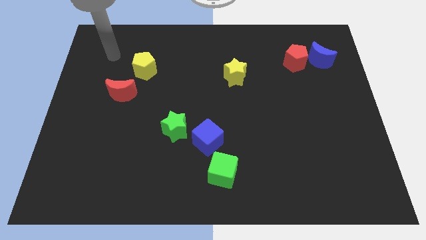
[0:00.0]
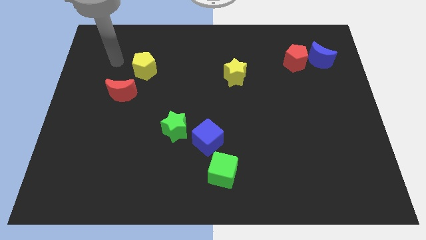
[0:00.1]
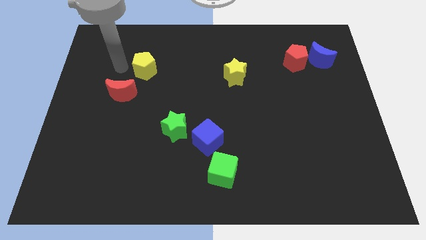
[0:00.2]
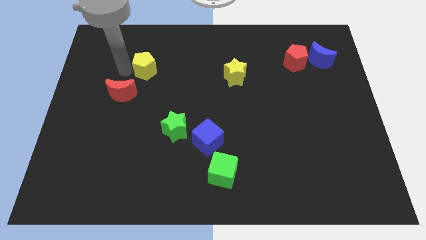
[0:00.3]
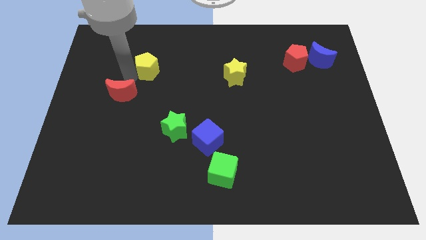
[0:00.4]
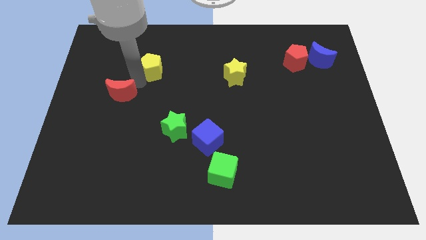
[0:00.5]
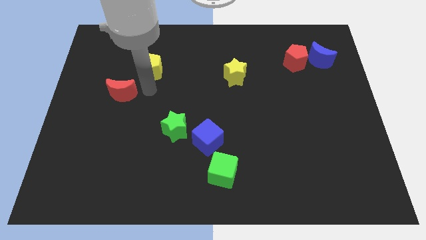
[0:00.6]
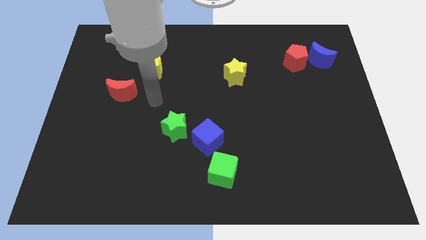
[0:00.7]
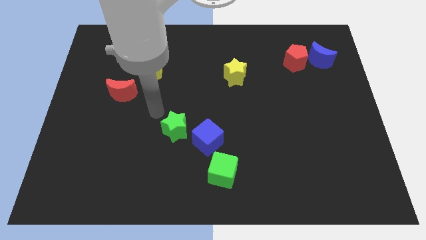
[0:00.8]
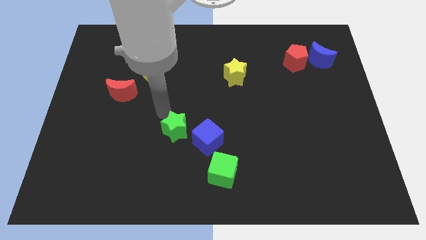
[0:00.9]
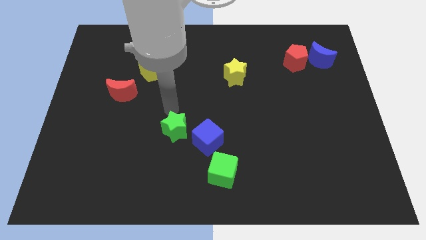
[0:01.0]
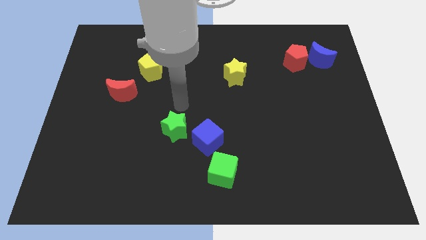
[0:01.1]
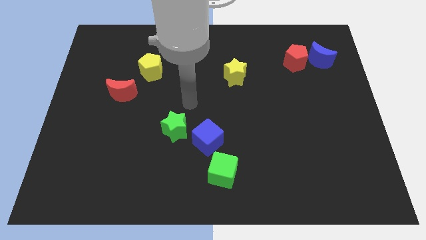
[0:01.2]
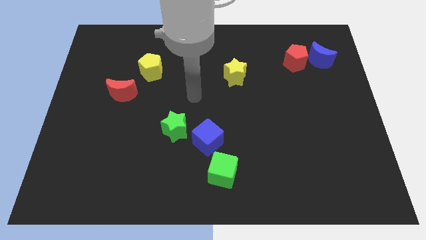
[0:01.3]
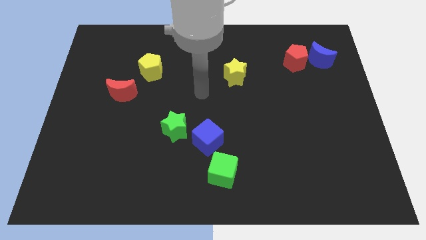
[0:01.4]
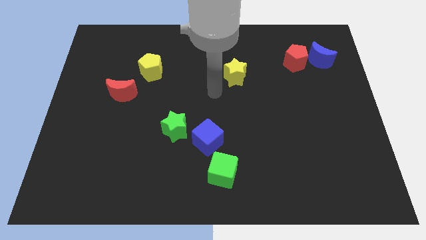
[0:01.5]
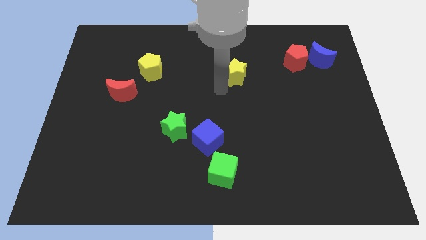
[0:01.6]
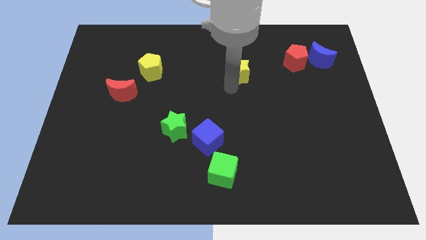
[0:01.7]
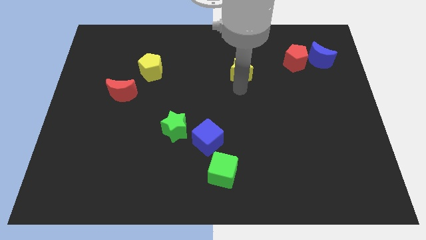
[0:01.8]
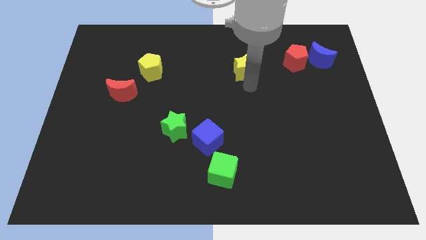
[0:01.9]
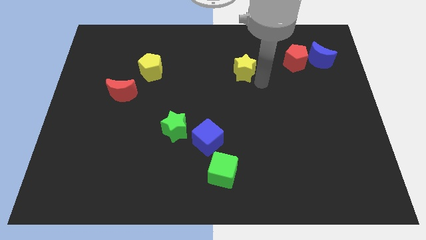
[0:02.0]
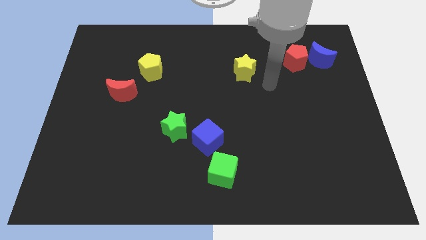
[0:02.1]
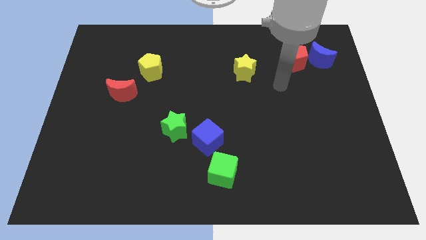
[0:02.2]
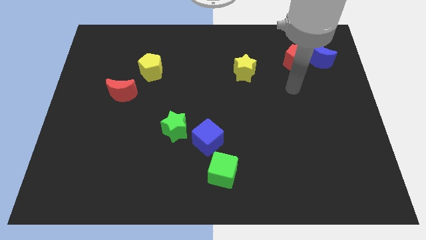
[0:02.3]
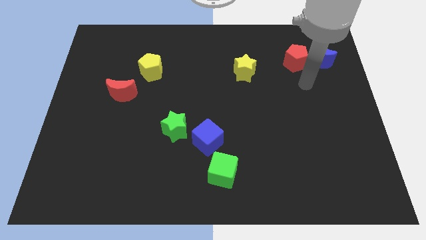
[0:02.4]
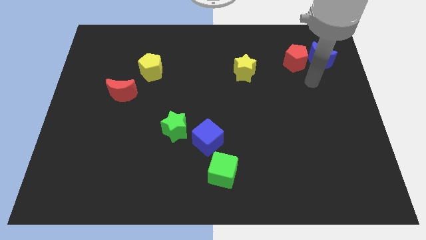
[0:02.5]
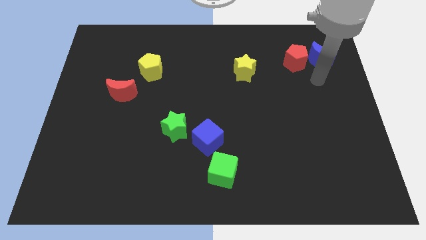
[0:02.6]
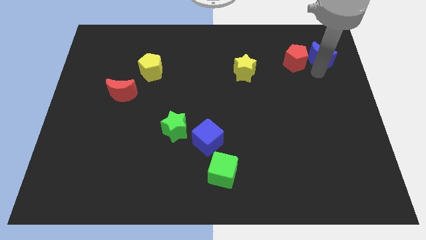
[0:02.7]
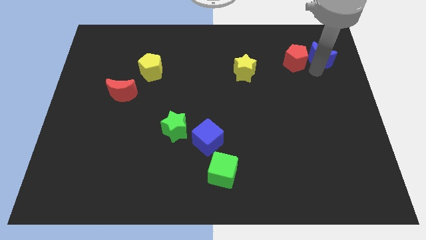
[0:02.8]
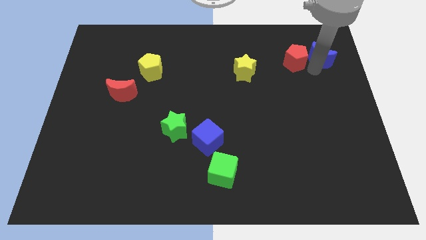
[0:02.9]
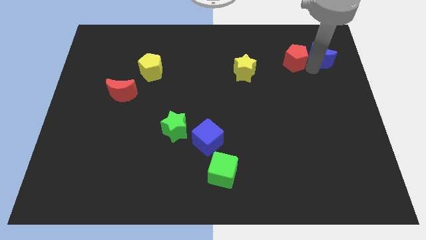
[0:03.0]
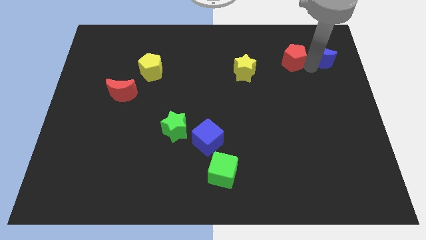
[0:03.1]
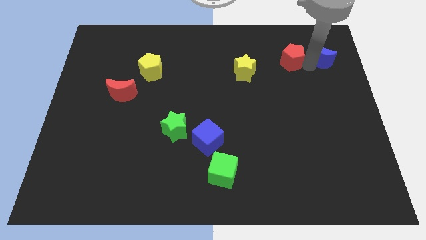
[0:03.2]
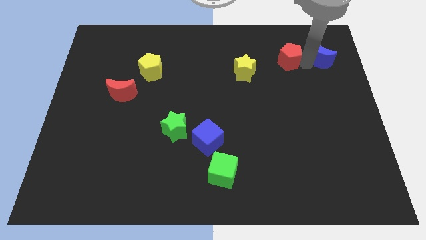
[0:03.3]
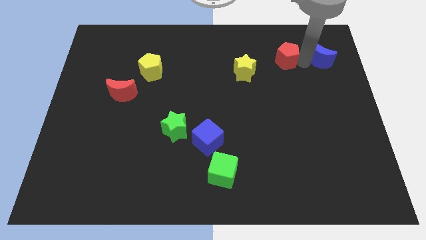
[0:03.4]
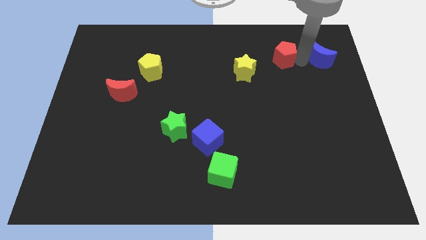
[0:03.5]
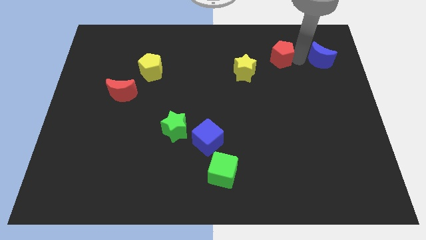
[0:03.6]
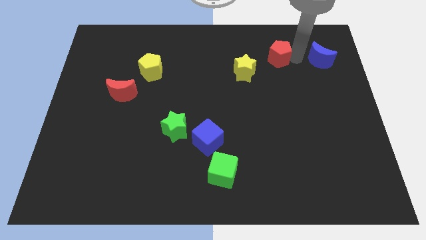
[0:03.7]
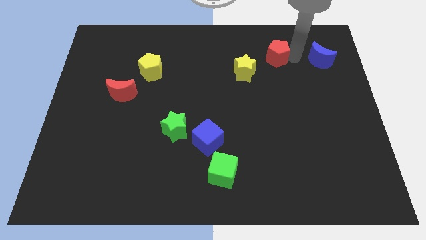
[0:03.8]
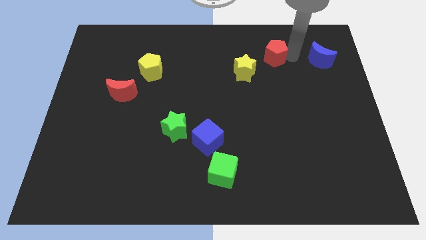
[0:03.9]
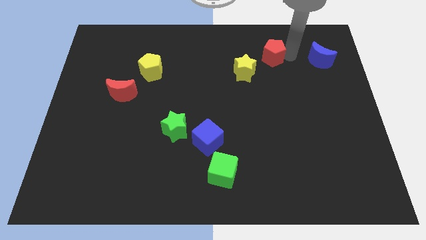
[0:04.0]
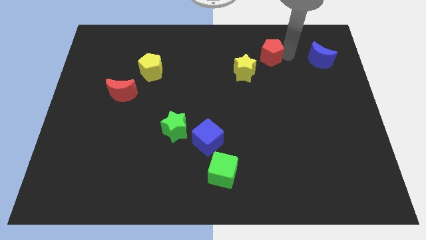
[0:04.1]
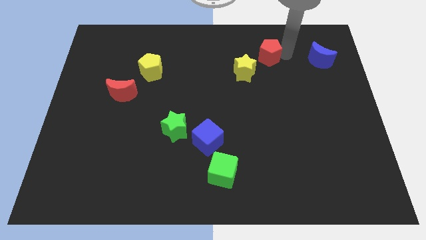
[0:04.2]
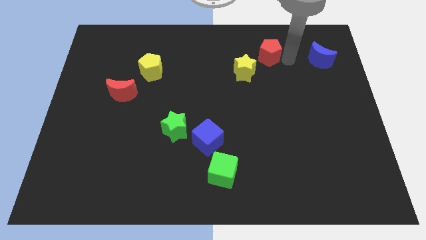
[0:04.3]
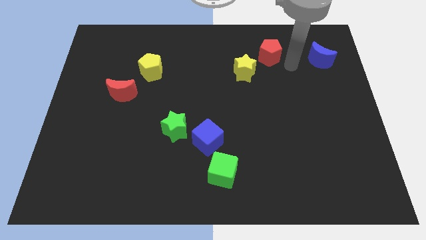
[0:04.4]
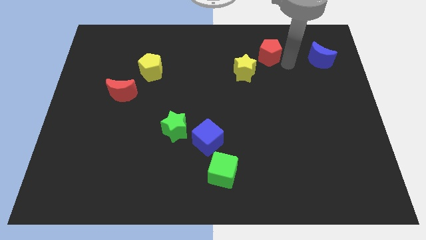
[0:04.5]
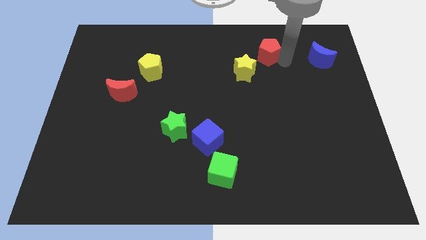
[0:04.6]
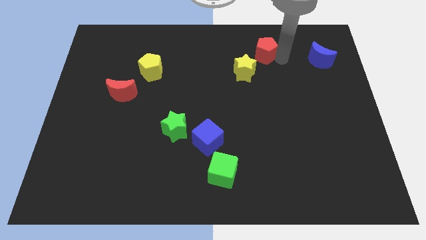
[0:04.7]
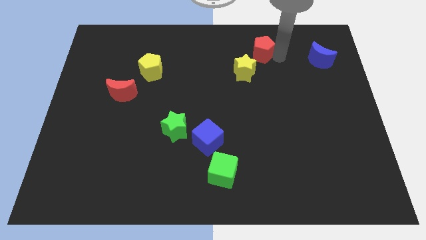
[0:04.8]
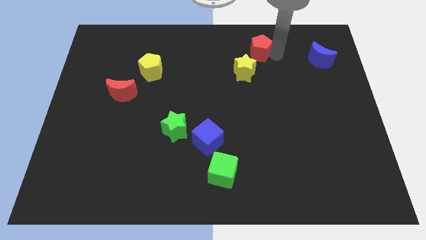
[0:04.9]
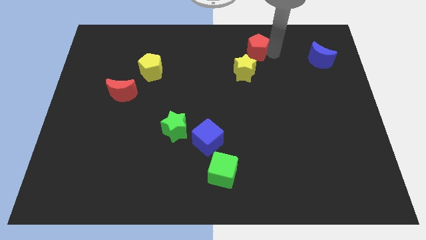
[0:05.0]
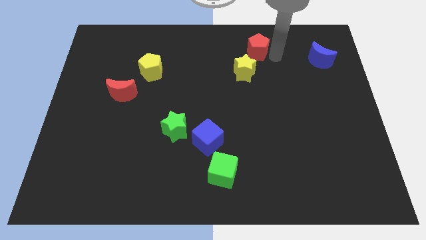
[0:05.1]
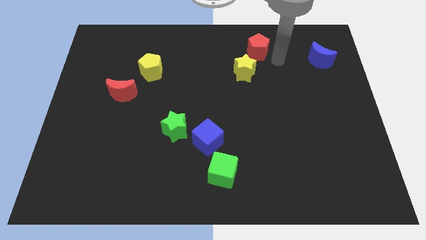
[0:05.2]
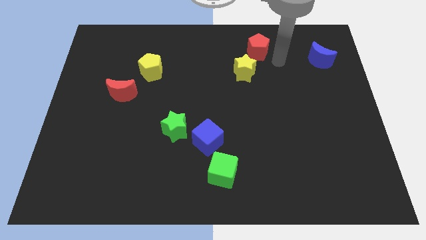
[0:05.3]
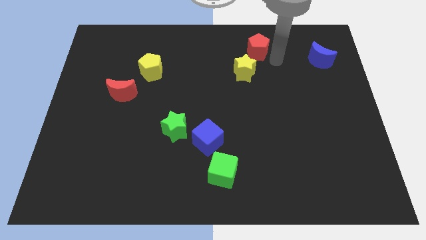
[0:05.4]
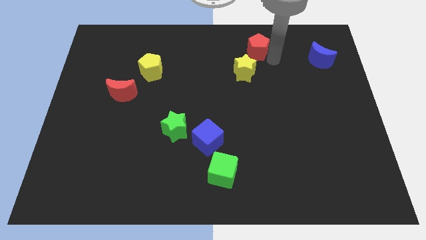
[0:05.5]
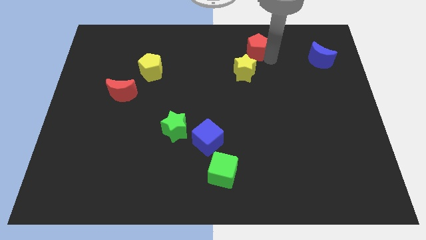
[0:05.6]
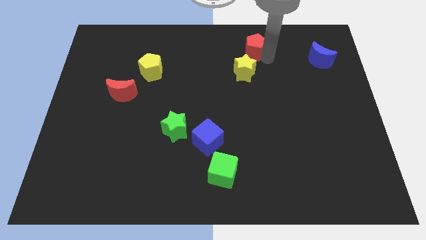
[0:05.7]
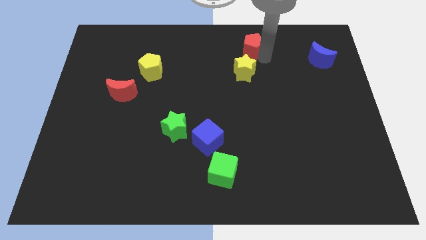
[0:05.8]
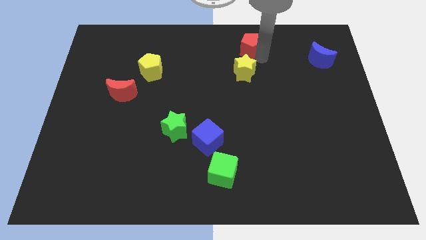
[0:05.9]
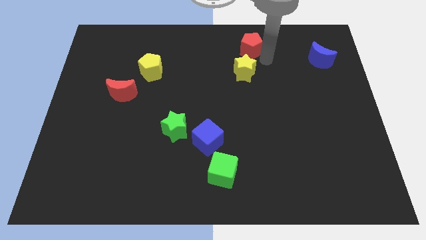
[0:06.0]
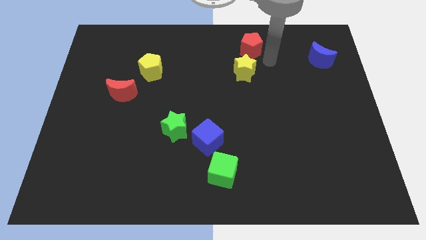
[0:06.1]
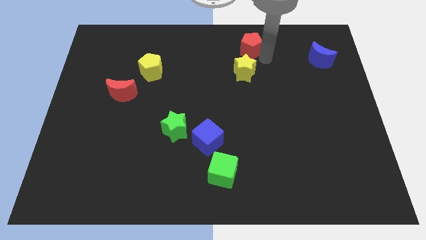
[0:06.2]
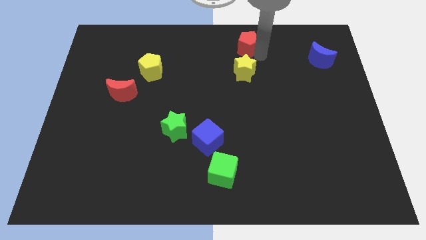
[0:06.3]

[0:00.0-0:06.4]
push the red pentagon to the top side
